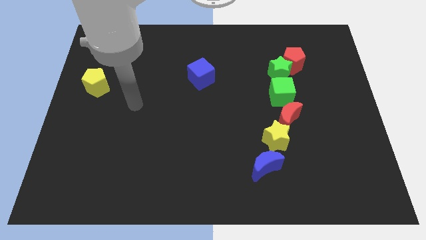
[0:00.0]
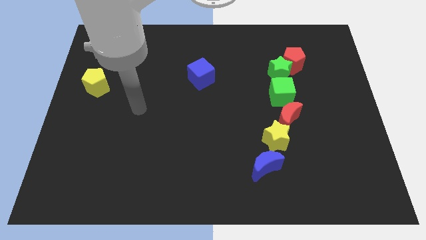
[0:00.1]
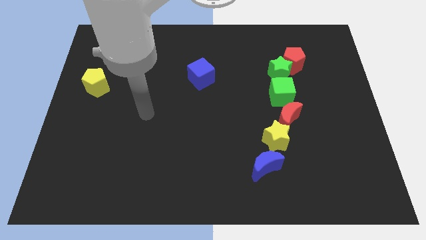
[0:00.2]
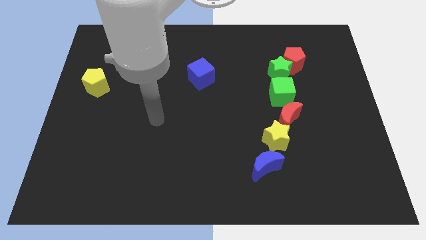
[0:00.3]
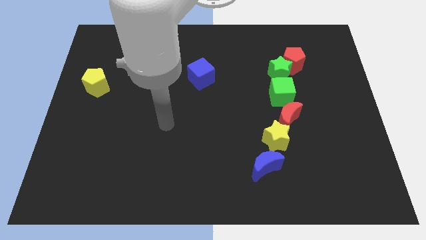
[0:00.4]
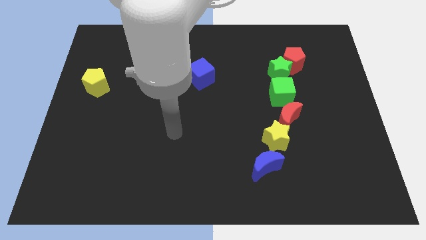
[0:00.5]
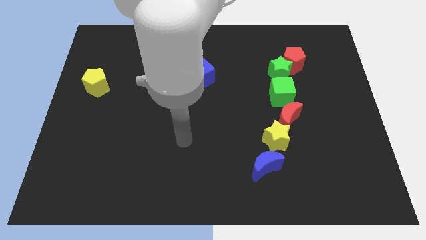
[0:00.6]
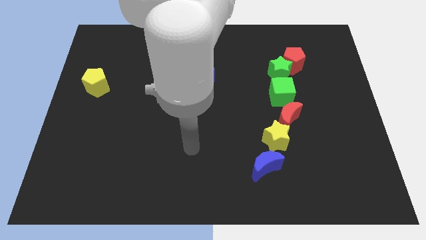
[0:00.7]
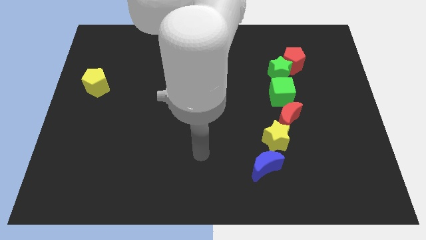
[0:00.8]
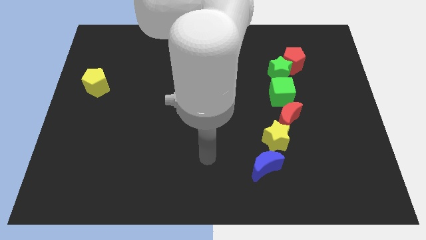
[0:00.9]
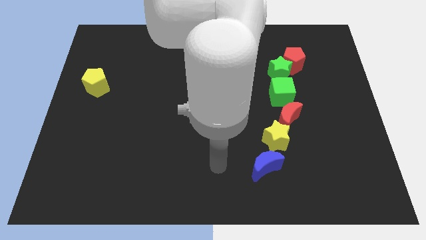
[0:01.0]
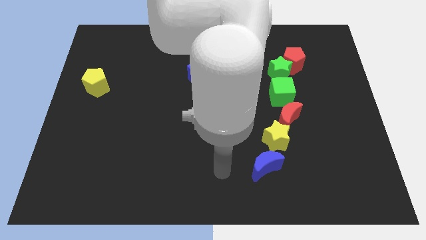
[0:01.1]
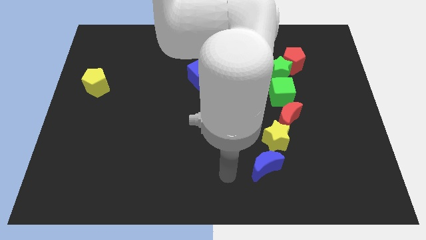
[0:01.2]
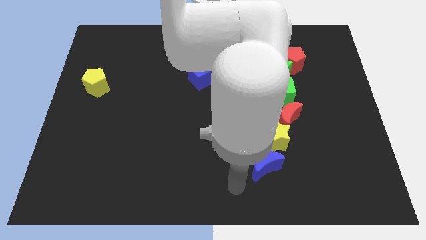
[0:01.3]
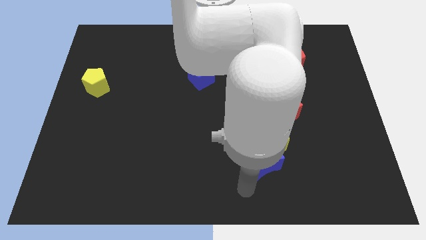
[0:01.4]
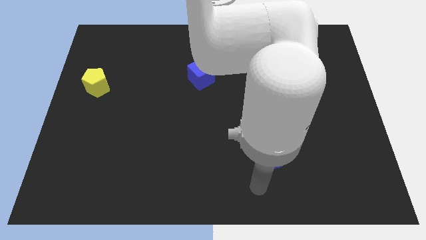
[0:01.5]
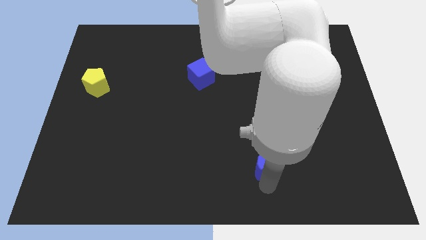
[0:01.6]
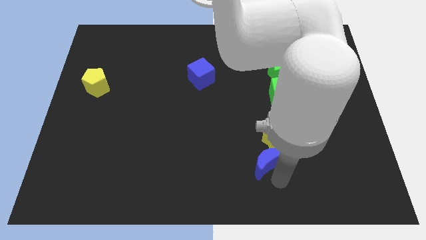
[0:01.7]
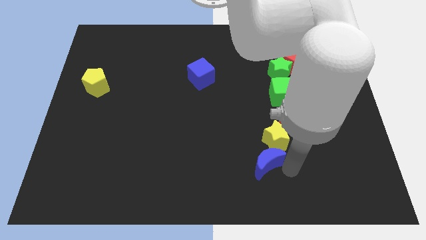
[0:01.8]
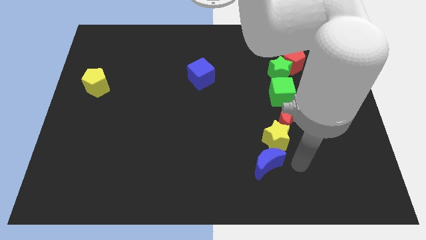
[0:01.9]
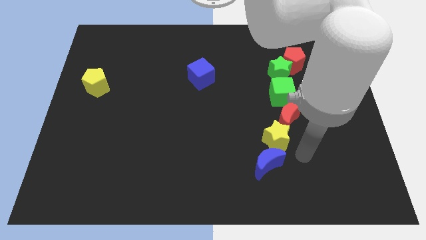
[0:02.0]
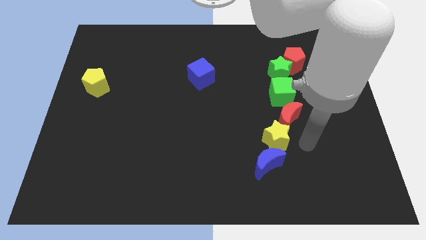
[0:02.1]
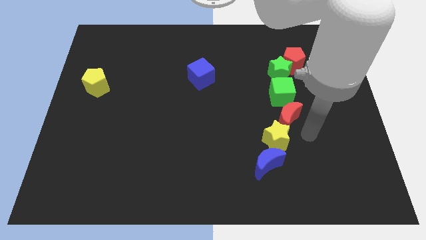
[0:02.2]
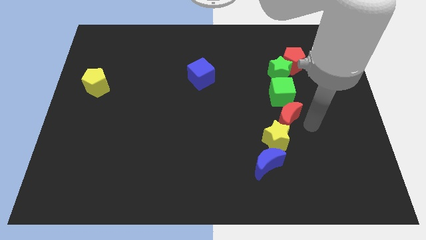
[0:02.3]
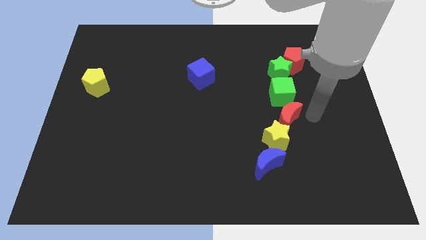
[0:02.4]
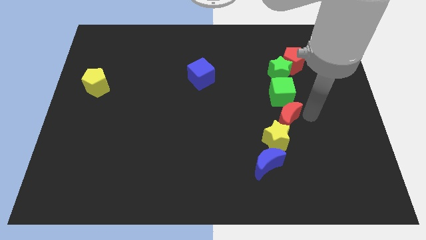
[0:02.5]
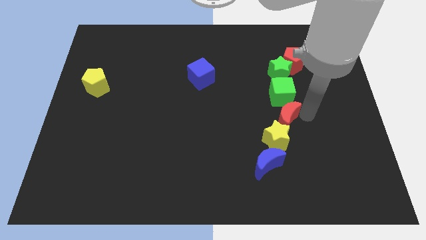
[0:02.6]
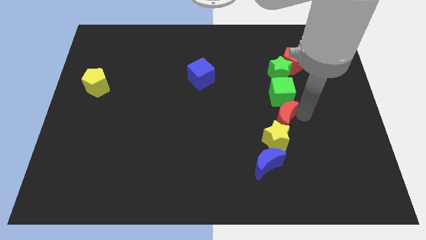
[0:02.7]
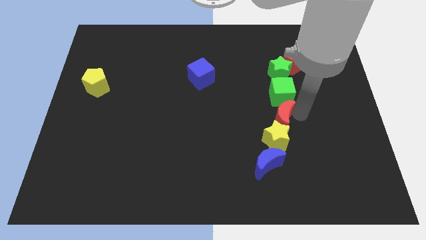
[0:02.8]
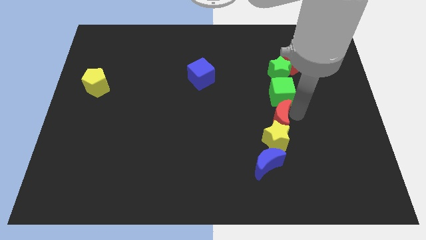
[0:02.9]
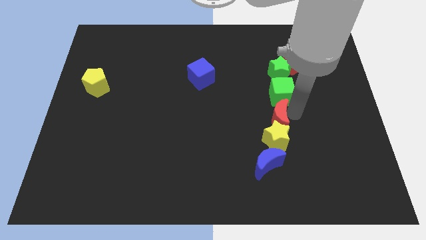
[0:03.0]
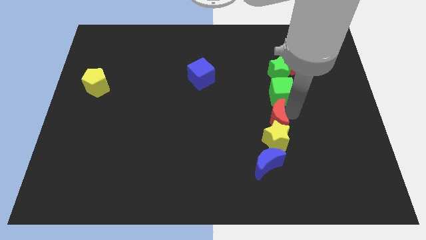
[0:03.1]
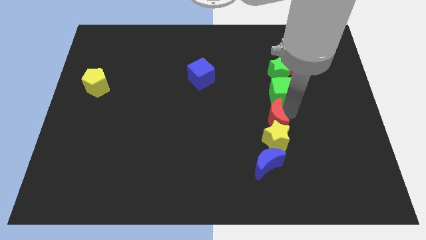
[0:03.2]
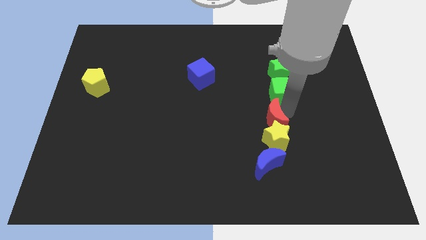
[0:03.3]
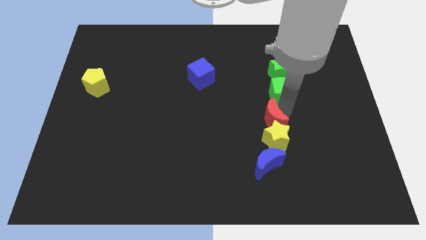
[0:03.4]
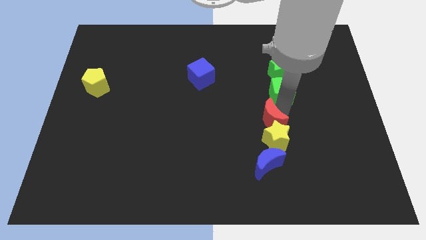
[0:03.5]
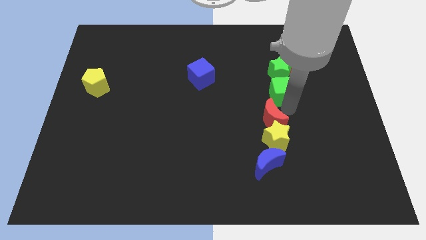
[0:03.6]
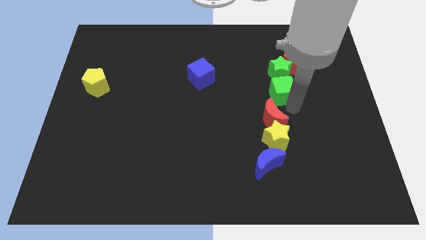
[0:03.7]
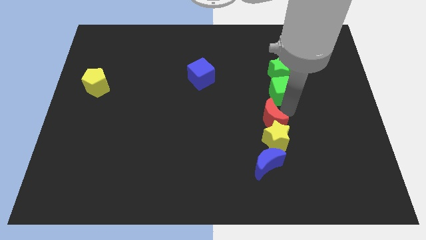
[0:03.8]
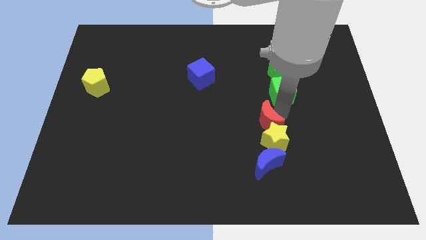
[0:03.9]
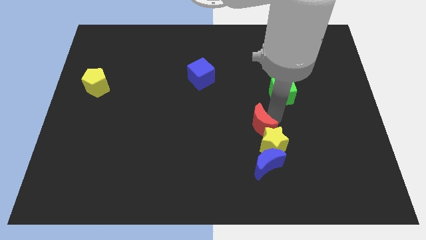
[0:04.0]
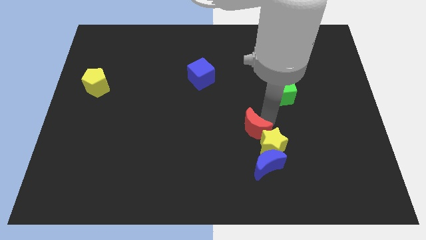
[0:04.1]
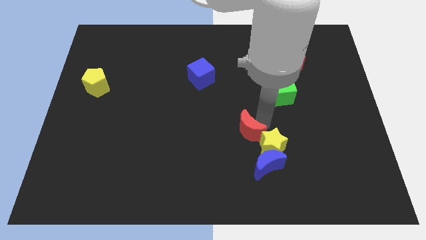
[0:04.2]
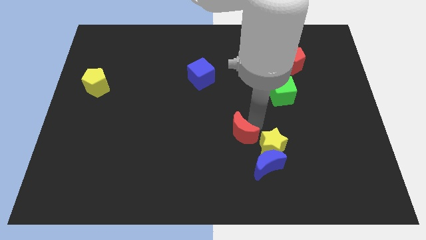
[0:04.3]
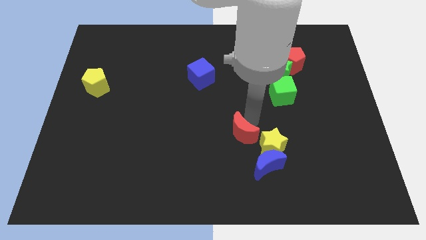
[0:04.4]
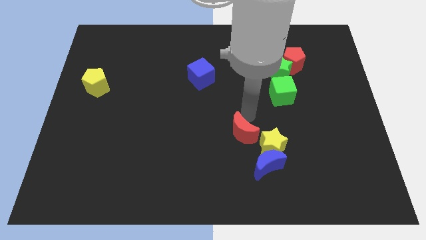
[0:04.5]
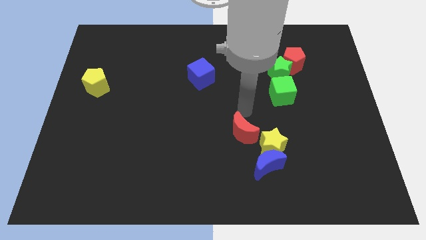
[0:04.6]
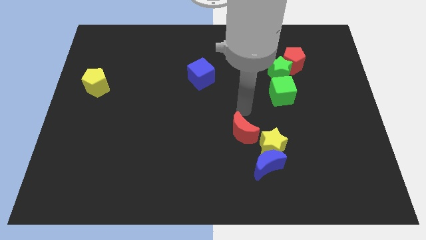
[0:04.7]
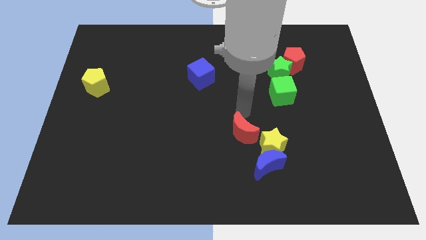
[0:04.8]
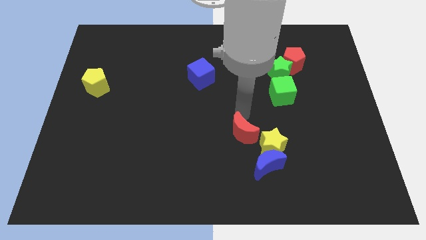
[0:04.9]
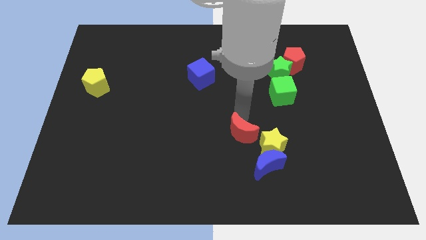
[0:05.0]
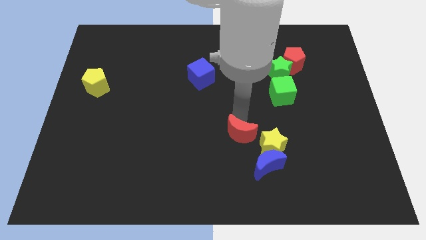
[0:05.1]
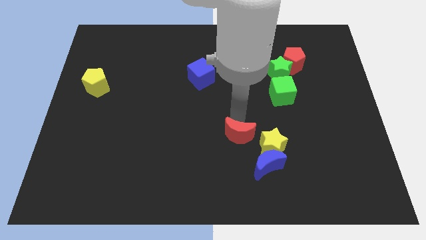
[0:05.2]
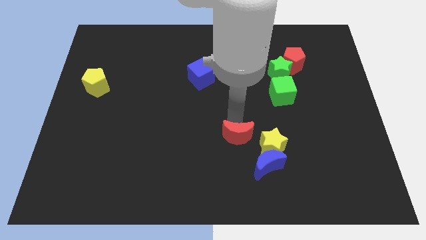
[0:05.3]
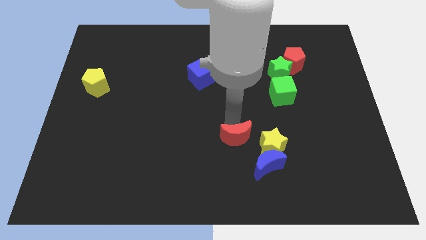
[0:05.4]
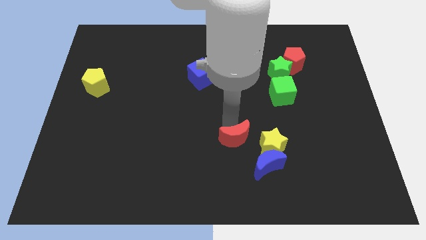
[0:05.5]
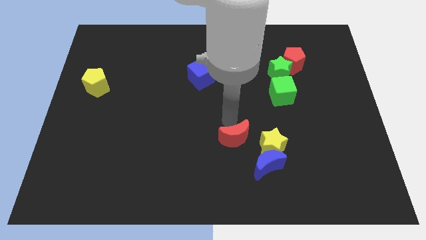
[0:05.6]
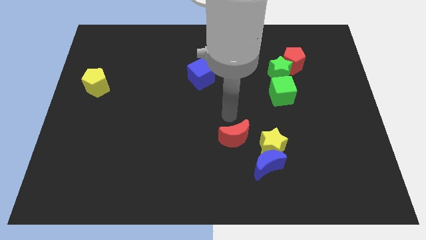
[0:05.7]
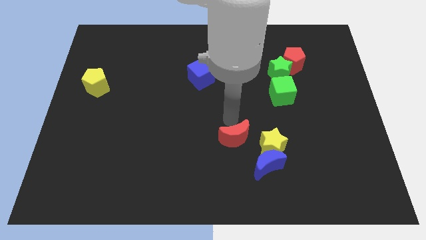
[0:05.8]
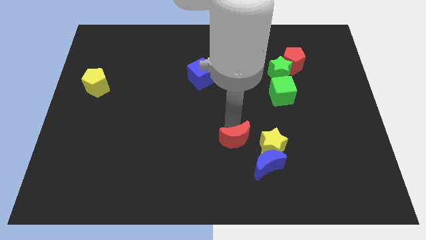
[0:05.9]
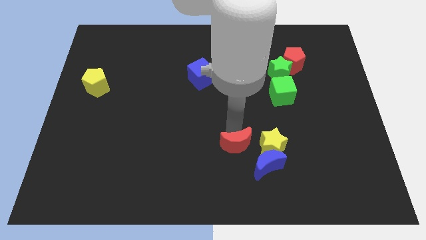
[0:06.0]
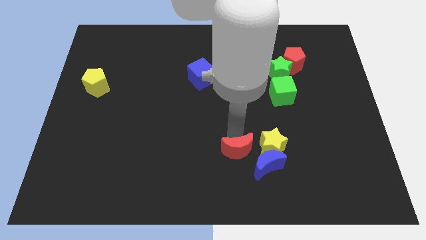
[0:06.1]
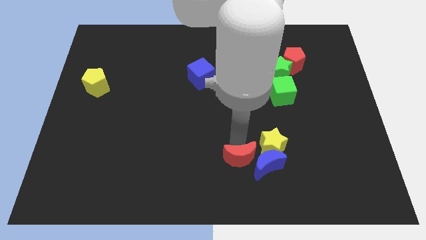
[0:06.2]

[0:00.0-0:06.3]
push the red moon to the bottom side

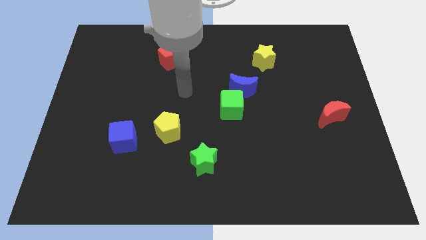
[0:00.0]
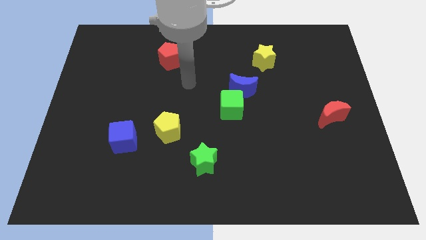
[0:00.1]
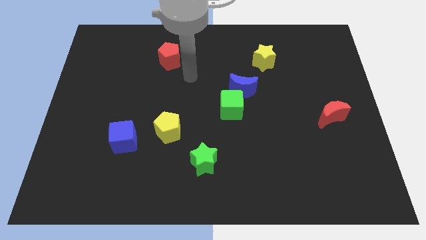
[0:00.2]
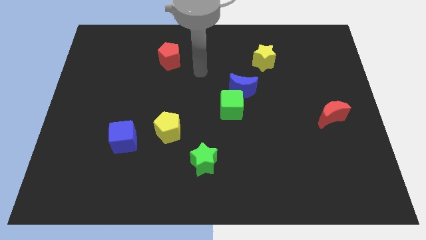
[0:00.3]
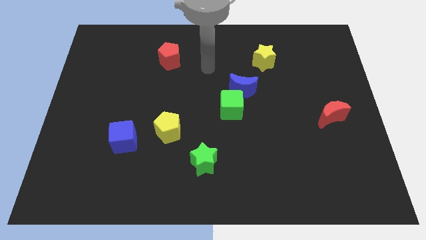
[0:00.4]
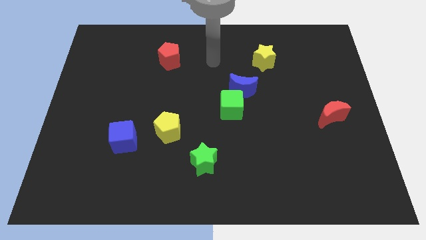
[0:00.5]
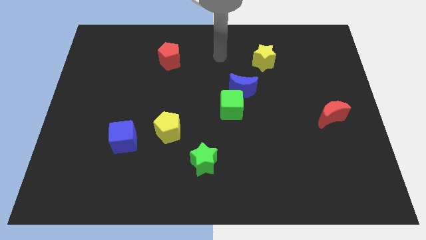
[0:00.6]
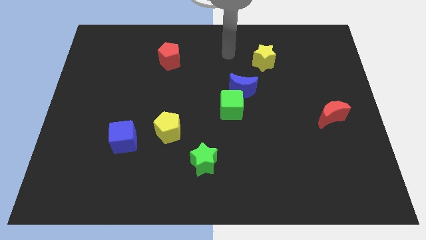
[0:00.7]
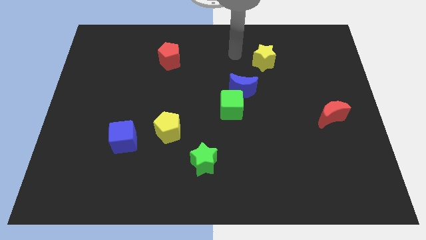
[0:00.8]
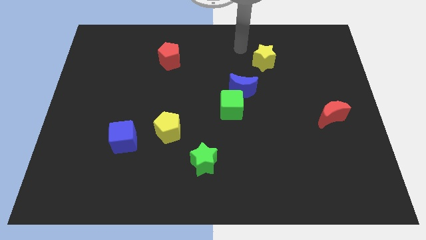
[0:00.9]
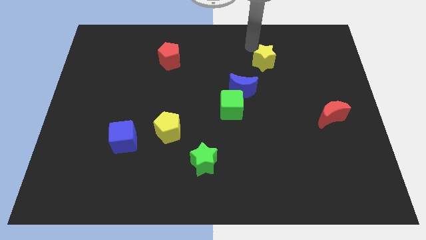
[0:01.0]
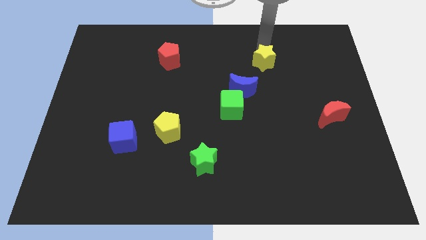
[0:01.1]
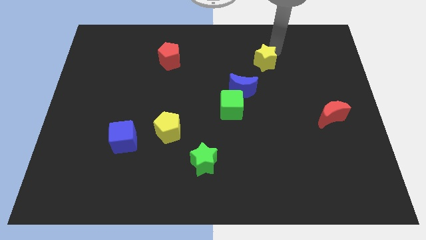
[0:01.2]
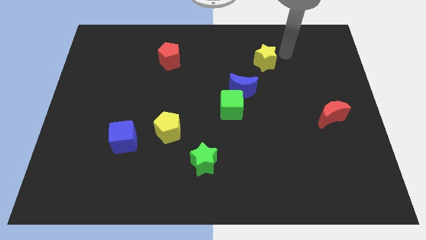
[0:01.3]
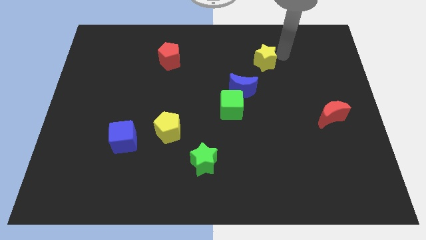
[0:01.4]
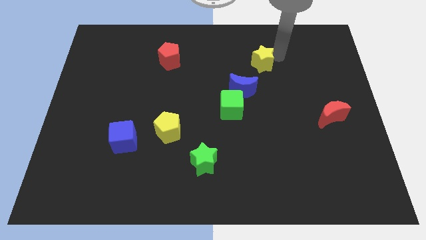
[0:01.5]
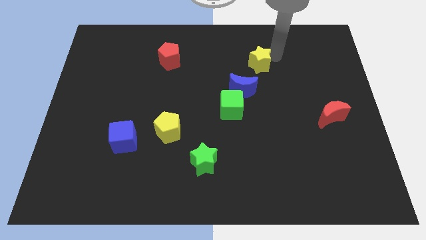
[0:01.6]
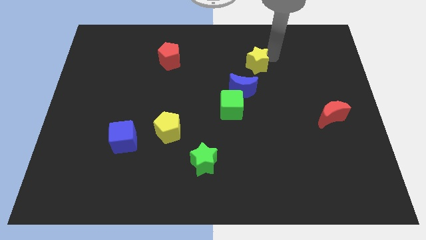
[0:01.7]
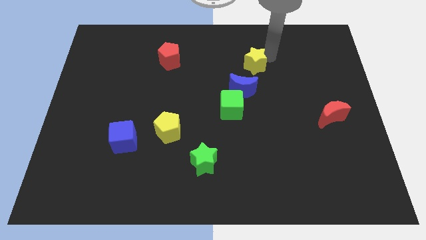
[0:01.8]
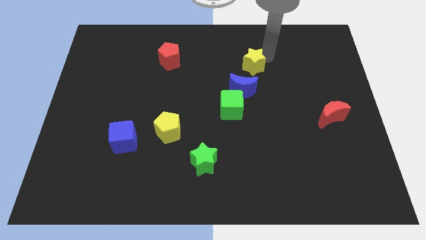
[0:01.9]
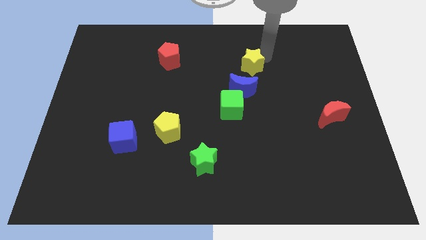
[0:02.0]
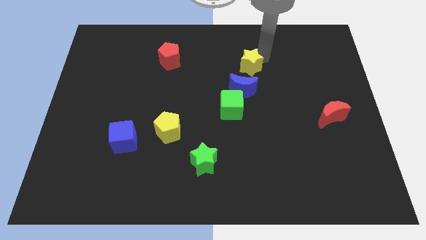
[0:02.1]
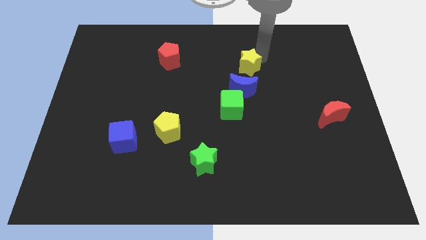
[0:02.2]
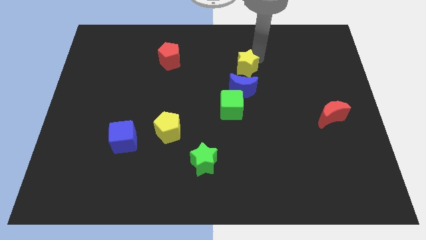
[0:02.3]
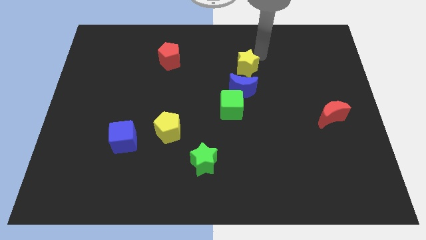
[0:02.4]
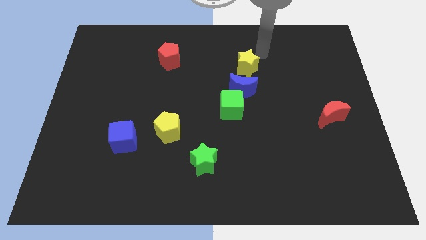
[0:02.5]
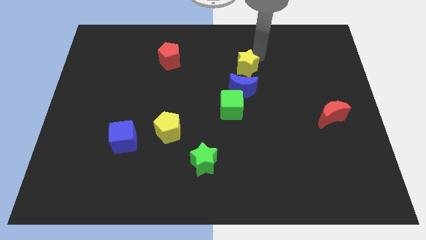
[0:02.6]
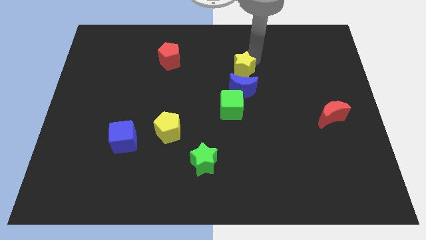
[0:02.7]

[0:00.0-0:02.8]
put the yellow star to the center of the board
